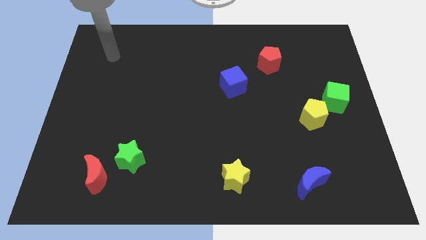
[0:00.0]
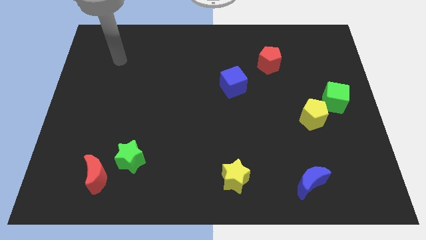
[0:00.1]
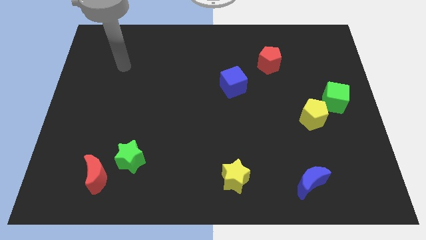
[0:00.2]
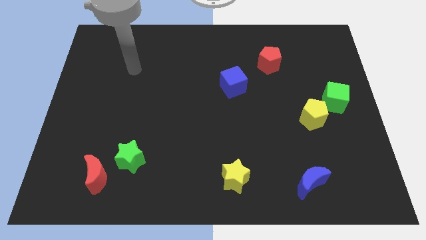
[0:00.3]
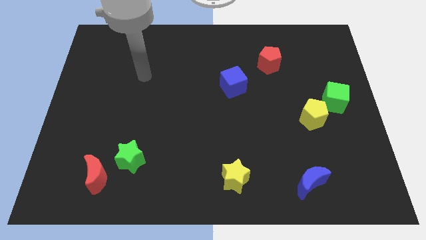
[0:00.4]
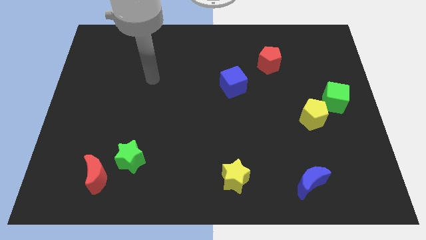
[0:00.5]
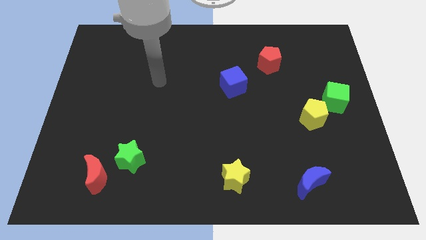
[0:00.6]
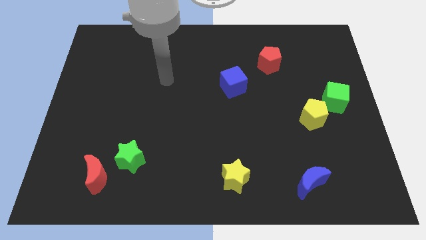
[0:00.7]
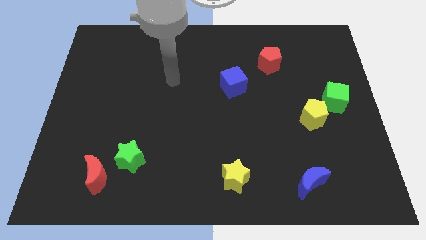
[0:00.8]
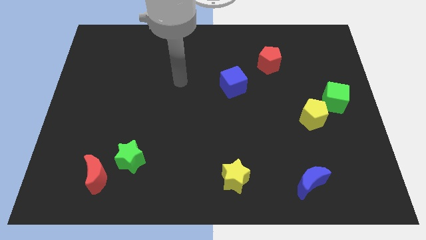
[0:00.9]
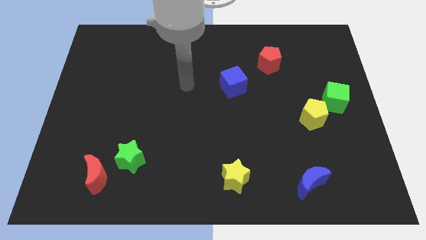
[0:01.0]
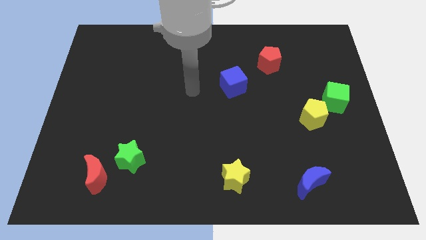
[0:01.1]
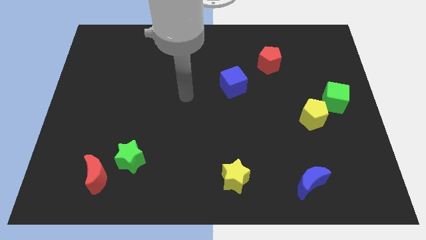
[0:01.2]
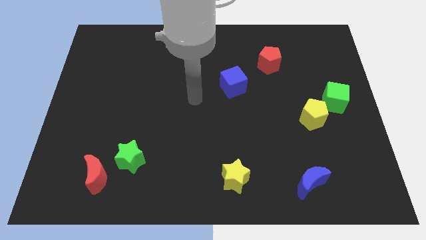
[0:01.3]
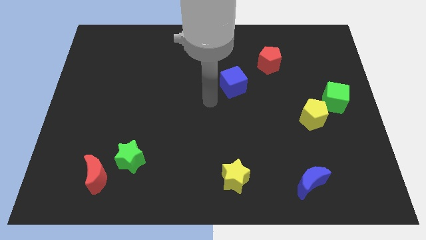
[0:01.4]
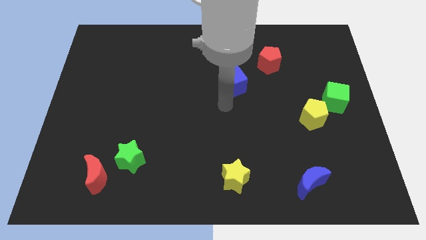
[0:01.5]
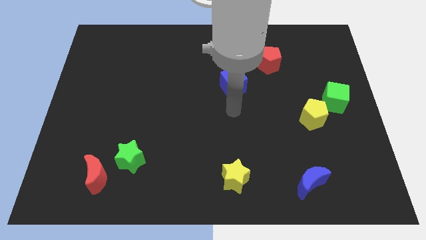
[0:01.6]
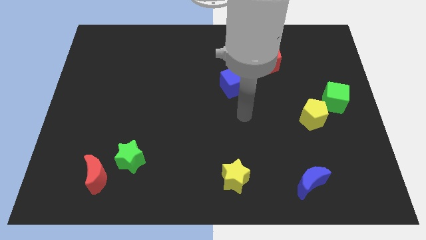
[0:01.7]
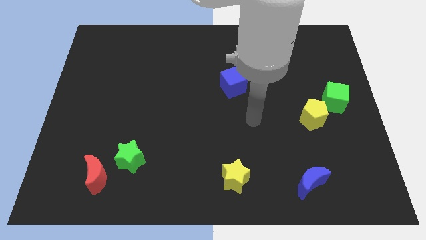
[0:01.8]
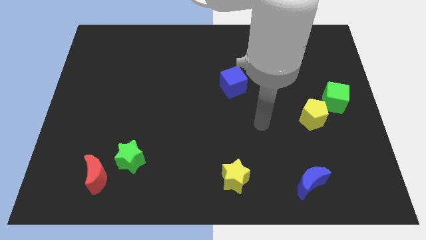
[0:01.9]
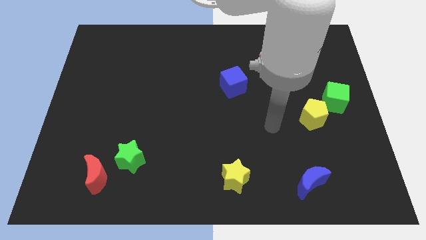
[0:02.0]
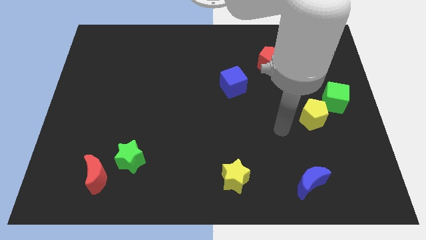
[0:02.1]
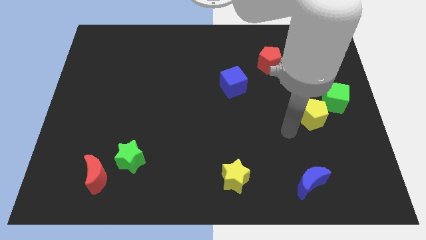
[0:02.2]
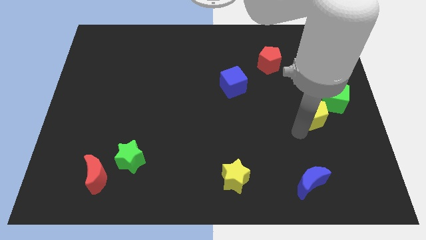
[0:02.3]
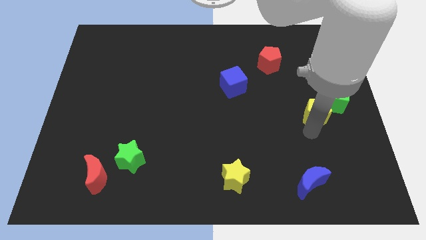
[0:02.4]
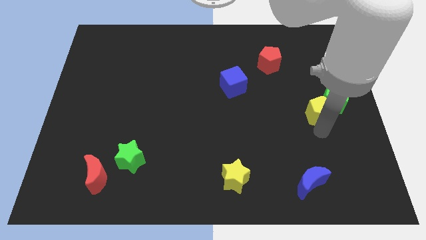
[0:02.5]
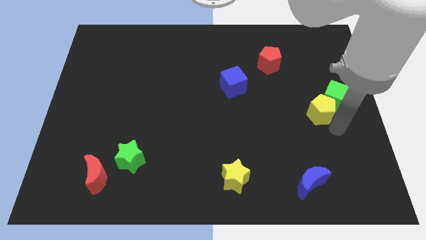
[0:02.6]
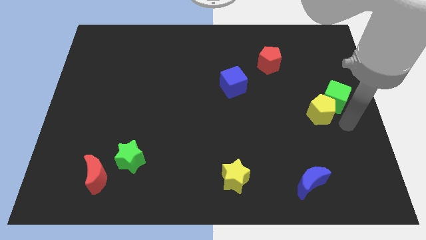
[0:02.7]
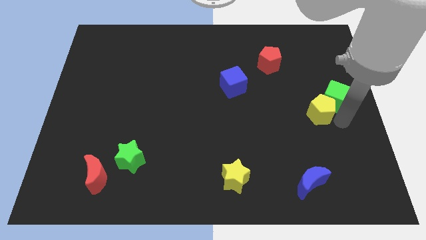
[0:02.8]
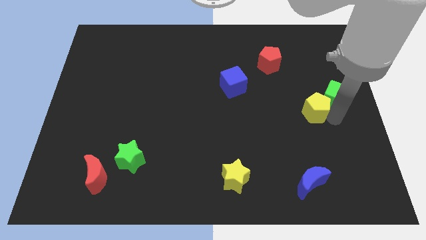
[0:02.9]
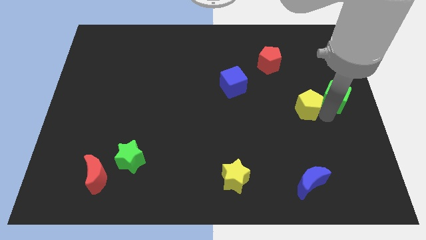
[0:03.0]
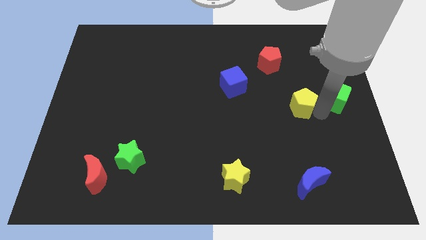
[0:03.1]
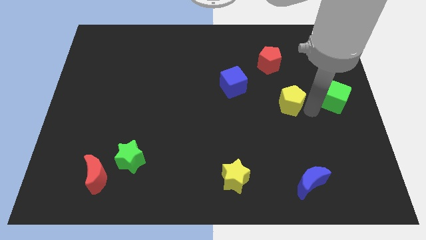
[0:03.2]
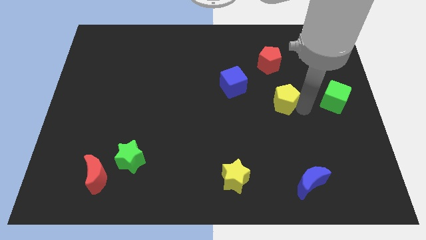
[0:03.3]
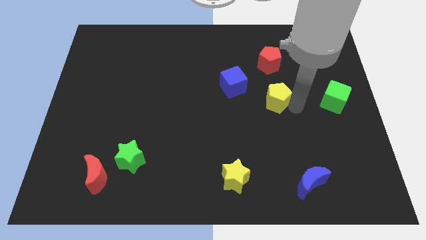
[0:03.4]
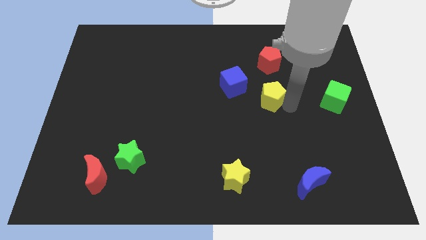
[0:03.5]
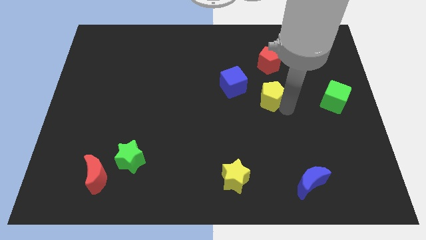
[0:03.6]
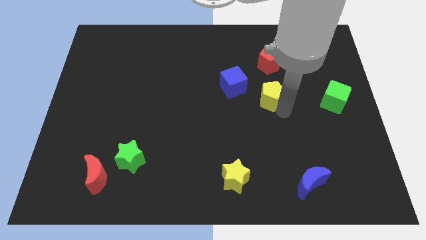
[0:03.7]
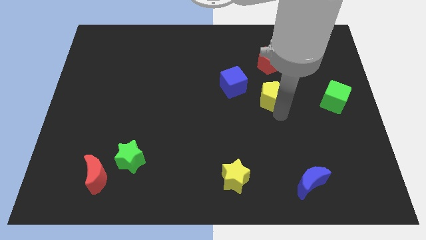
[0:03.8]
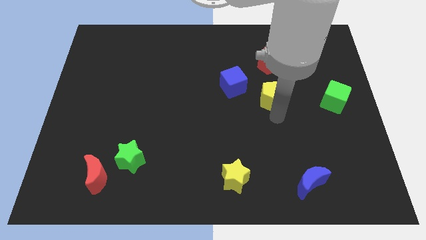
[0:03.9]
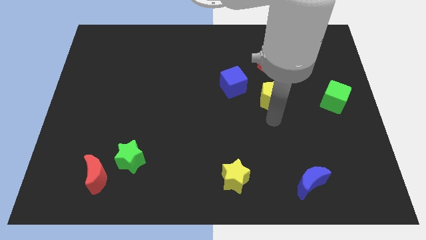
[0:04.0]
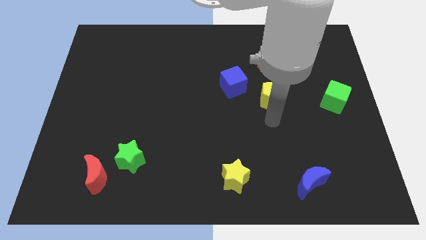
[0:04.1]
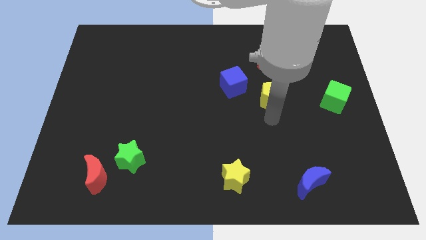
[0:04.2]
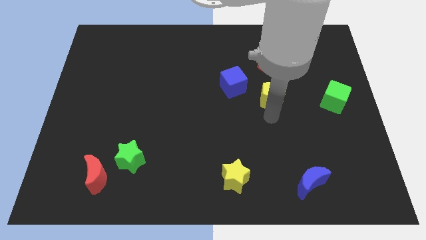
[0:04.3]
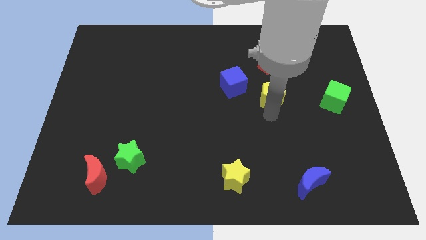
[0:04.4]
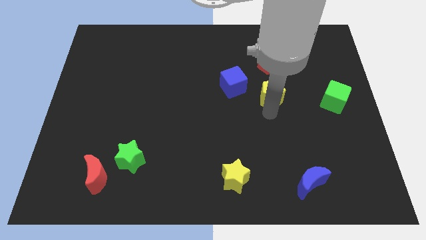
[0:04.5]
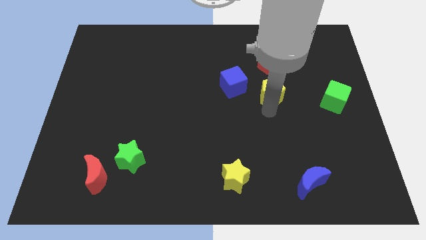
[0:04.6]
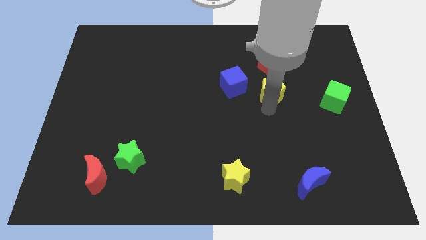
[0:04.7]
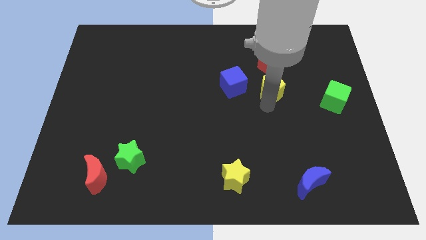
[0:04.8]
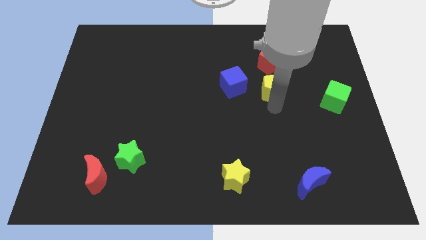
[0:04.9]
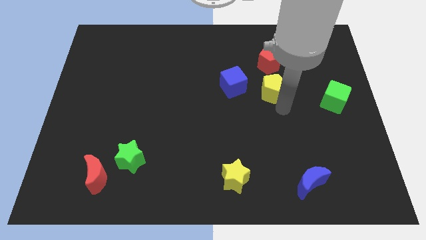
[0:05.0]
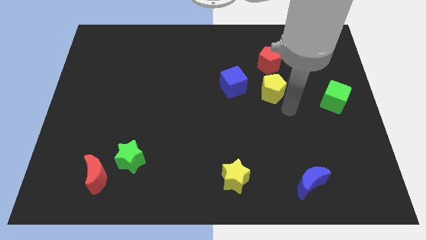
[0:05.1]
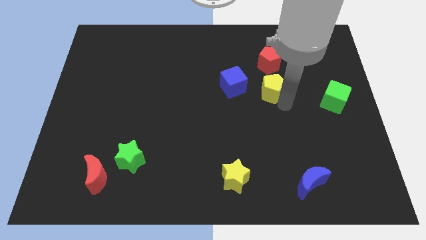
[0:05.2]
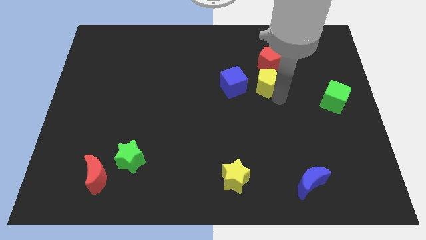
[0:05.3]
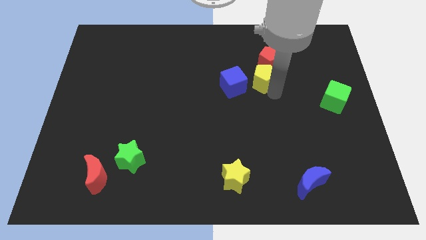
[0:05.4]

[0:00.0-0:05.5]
push the yellow pentagon diagonally up and to the right of the blue cube

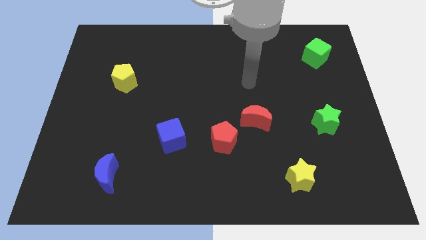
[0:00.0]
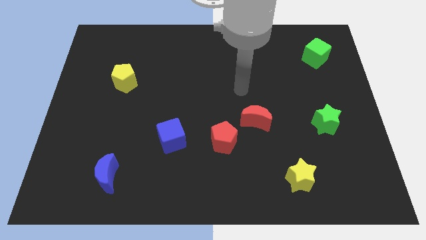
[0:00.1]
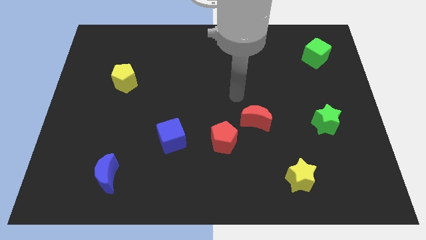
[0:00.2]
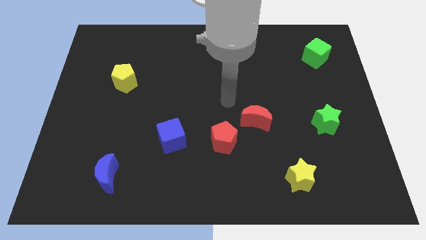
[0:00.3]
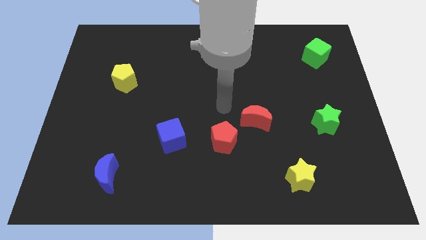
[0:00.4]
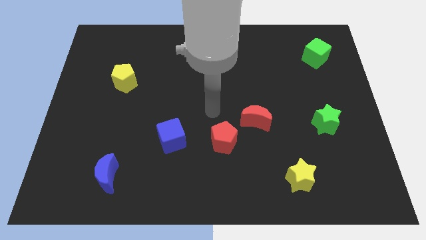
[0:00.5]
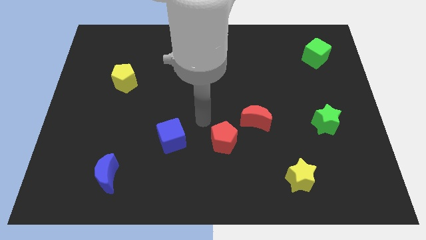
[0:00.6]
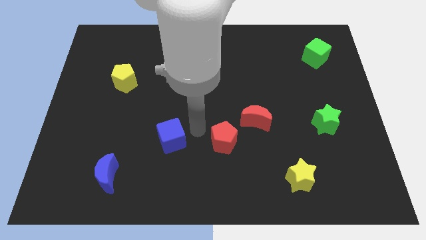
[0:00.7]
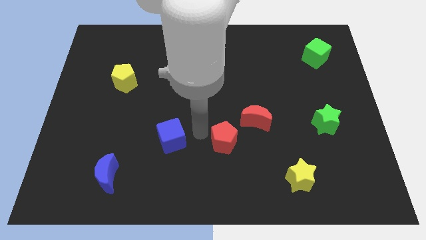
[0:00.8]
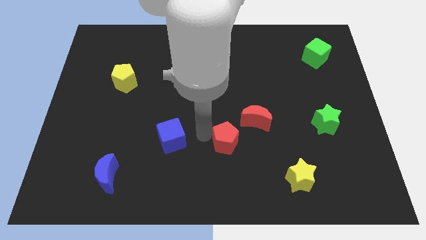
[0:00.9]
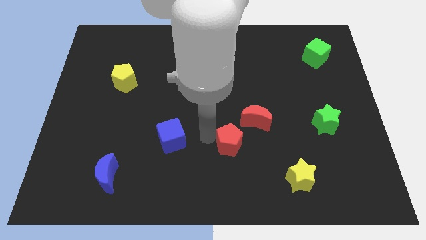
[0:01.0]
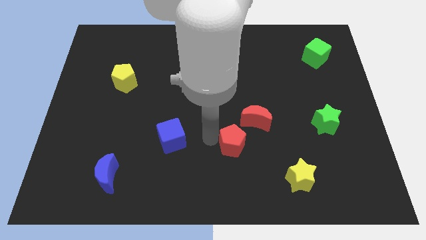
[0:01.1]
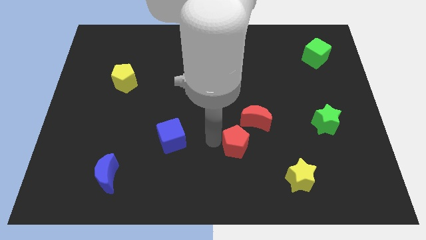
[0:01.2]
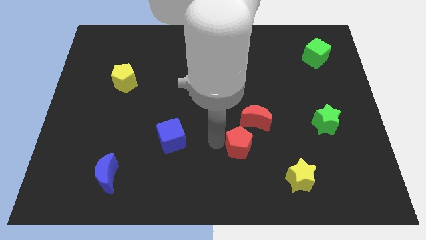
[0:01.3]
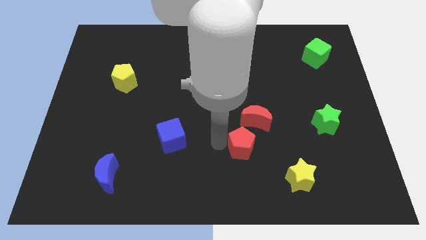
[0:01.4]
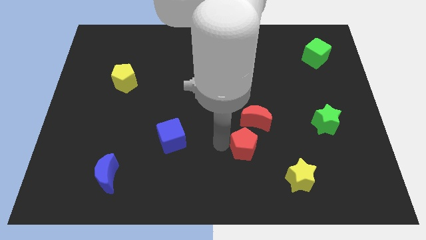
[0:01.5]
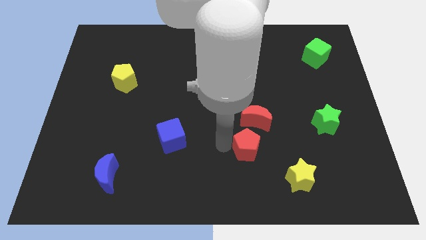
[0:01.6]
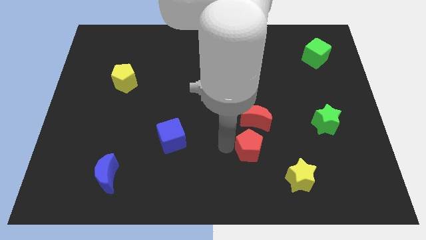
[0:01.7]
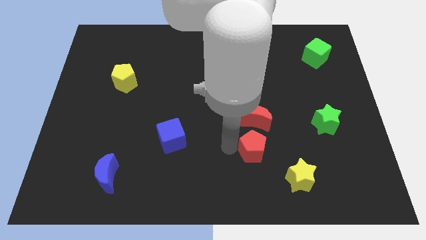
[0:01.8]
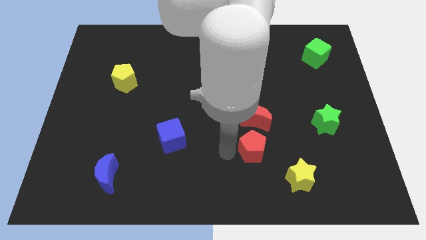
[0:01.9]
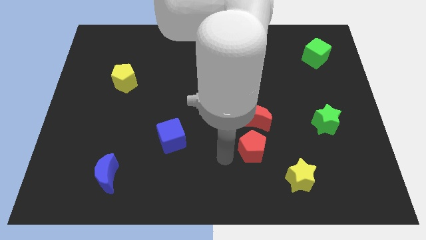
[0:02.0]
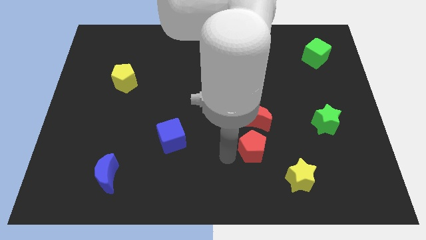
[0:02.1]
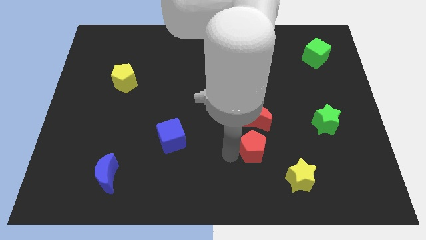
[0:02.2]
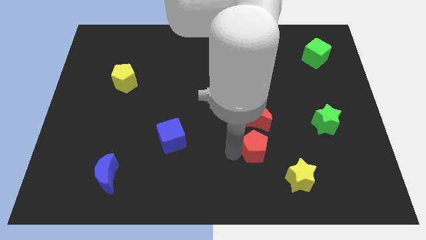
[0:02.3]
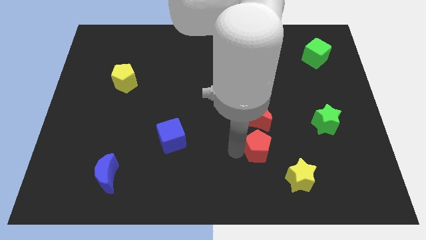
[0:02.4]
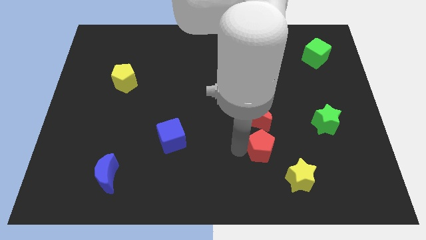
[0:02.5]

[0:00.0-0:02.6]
put the red pentagon diagonally down and to the right of the red moon

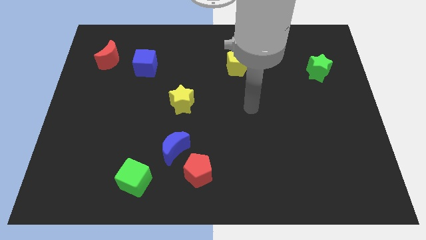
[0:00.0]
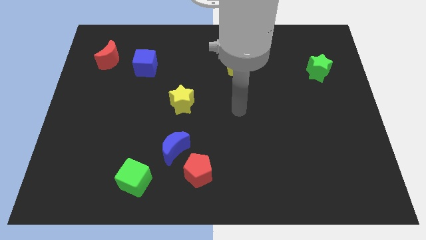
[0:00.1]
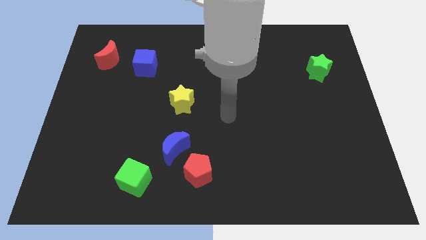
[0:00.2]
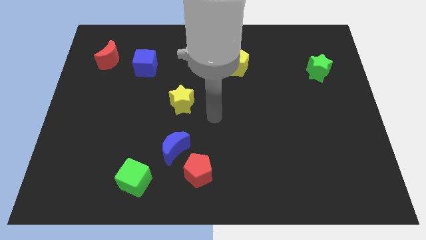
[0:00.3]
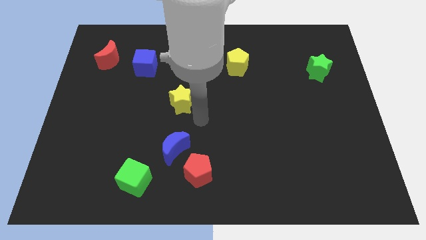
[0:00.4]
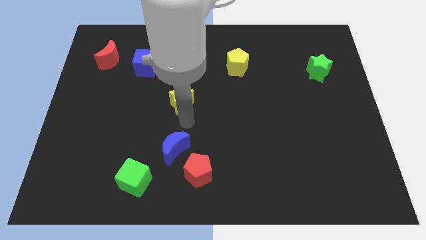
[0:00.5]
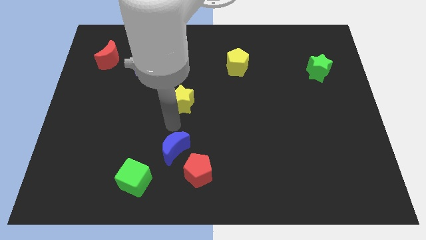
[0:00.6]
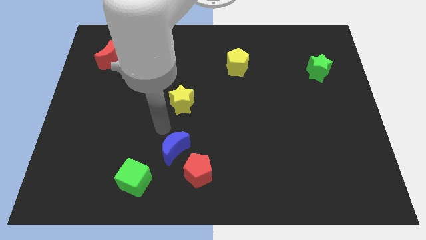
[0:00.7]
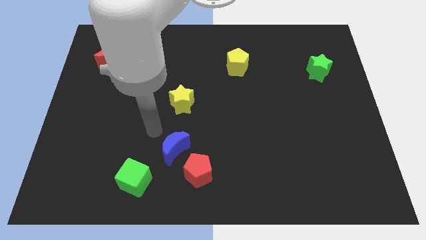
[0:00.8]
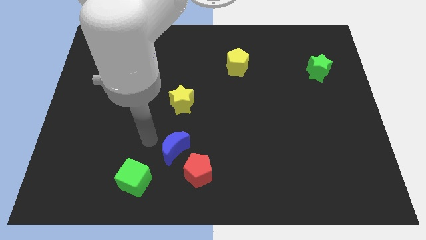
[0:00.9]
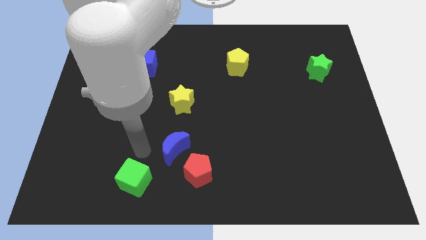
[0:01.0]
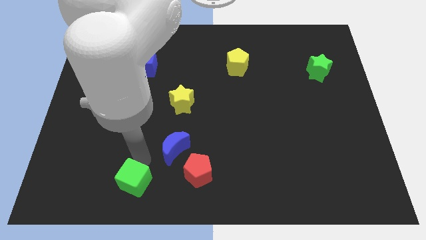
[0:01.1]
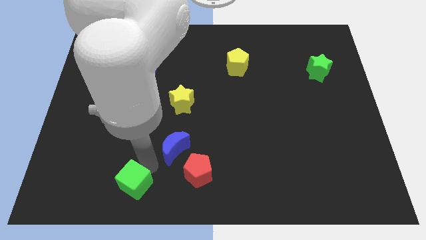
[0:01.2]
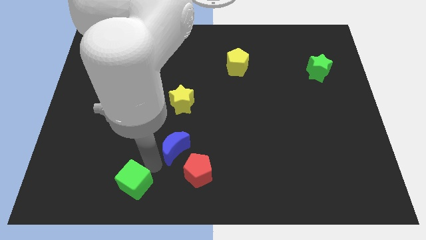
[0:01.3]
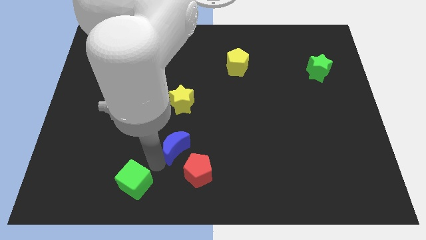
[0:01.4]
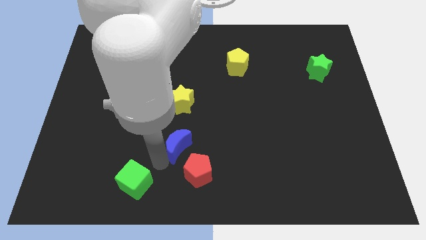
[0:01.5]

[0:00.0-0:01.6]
put the blue moon to the top of the red pentagon
